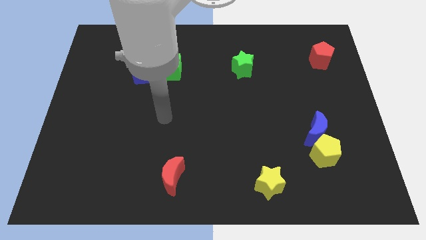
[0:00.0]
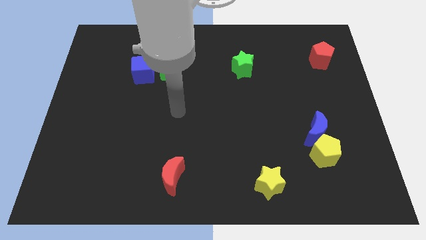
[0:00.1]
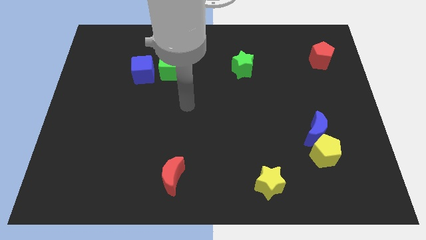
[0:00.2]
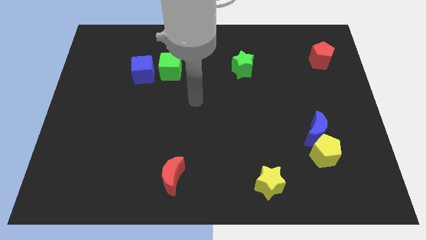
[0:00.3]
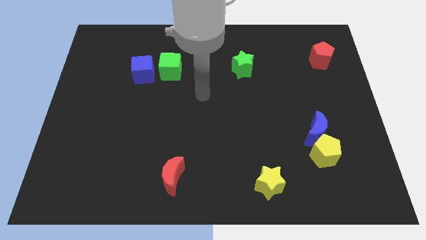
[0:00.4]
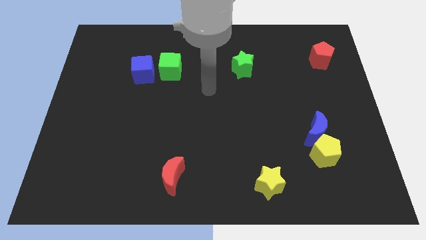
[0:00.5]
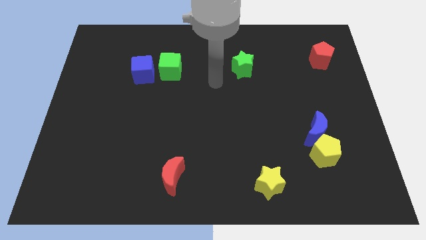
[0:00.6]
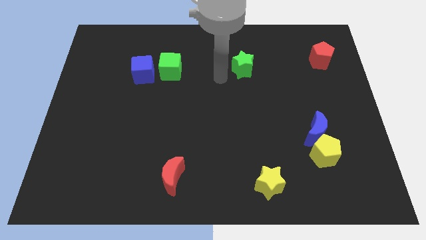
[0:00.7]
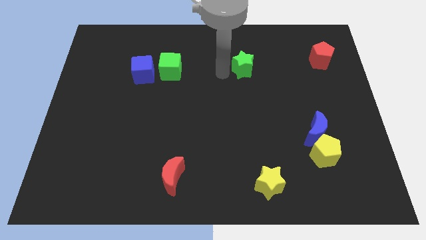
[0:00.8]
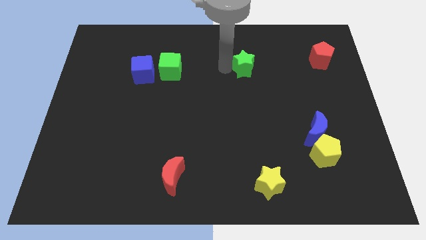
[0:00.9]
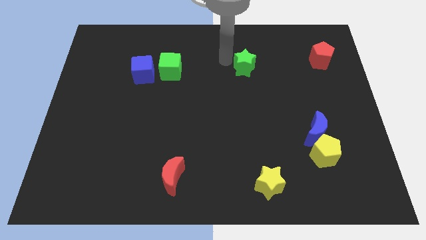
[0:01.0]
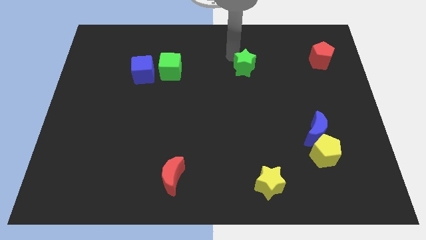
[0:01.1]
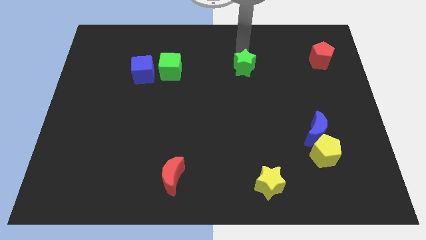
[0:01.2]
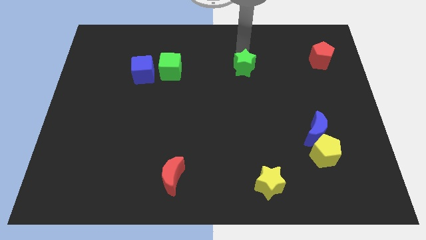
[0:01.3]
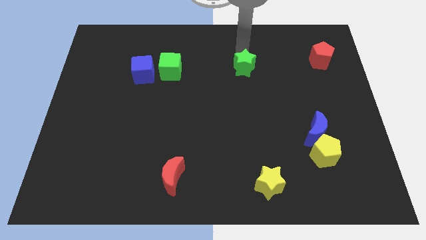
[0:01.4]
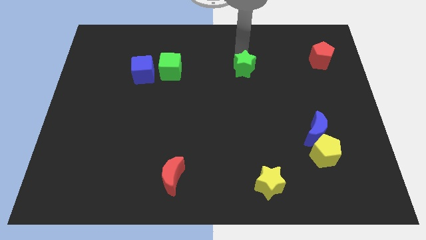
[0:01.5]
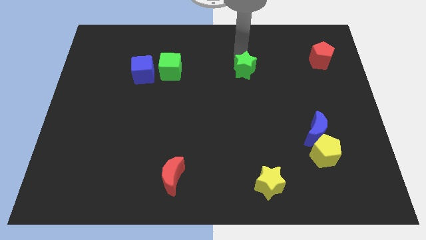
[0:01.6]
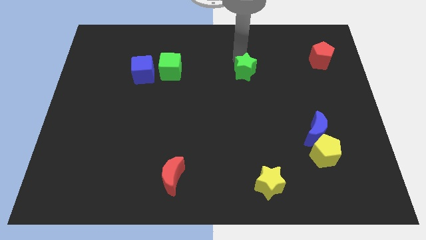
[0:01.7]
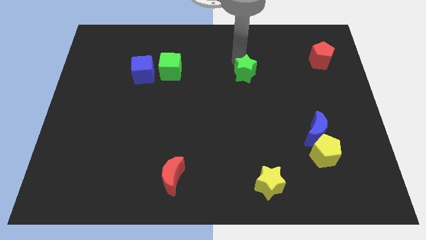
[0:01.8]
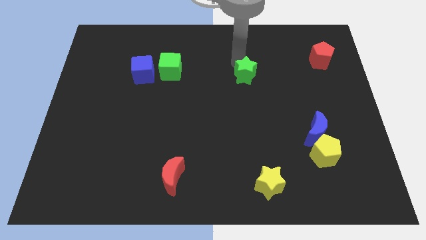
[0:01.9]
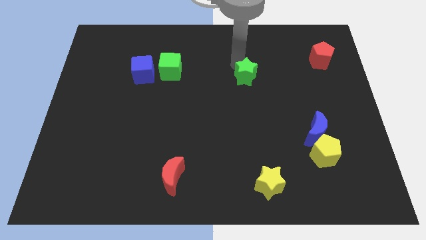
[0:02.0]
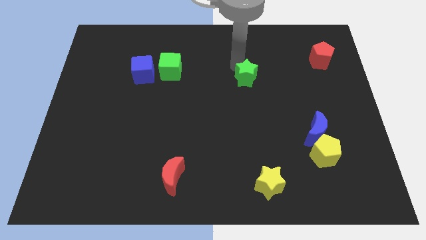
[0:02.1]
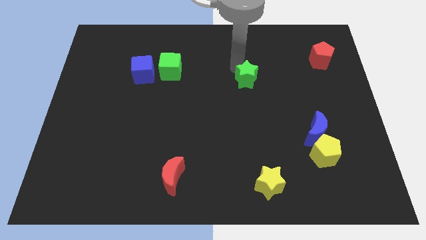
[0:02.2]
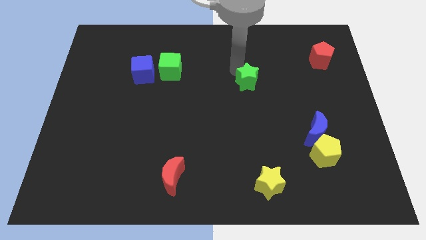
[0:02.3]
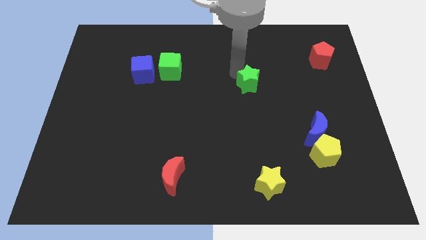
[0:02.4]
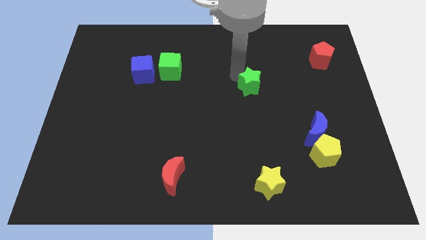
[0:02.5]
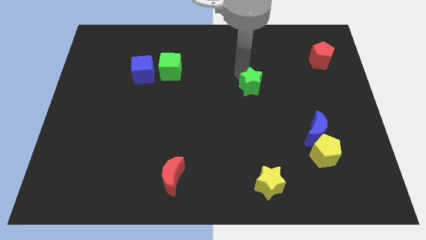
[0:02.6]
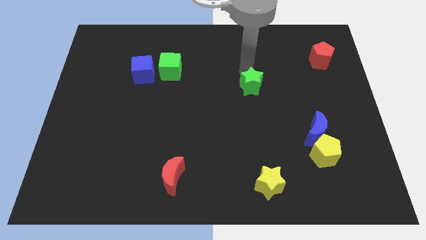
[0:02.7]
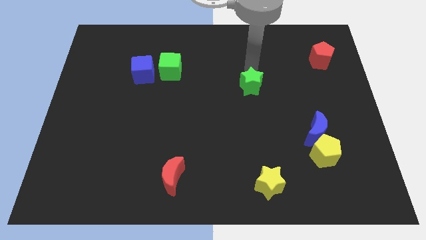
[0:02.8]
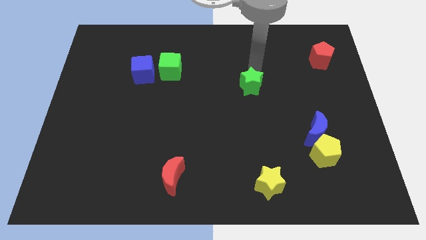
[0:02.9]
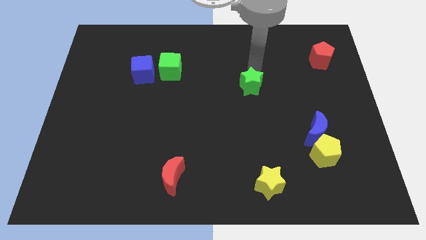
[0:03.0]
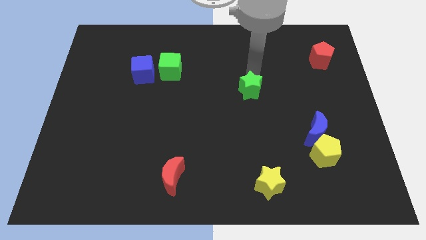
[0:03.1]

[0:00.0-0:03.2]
slide the green star slightly downwards

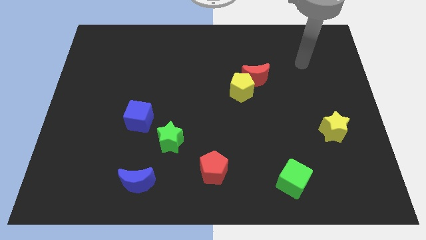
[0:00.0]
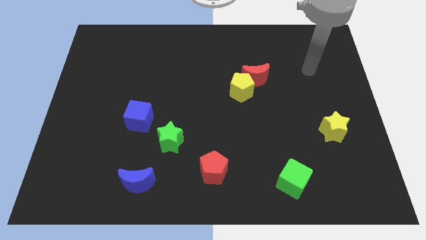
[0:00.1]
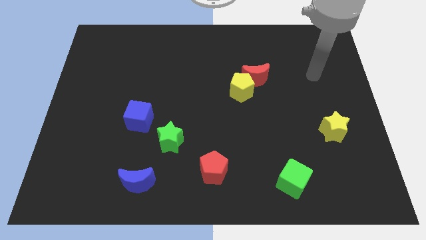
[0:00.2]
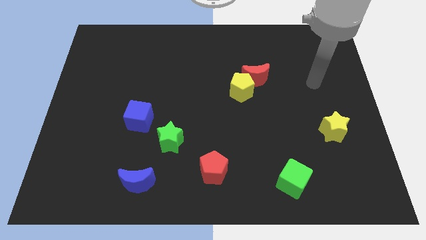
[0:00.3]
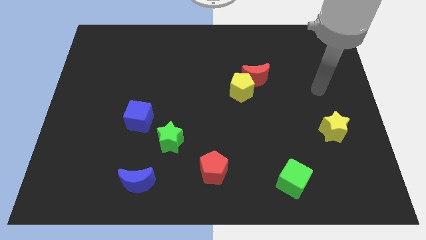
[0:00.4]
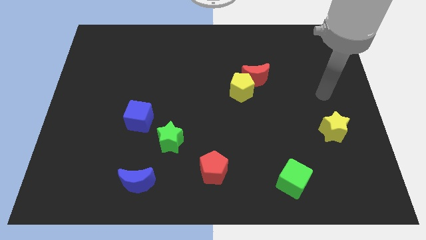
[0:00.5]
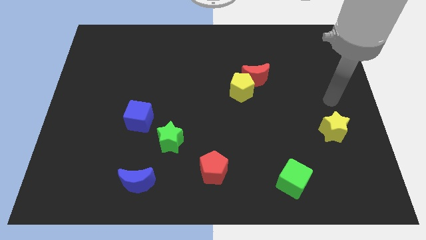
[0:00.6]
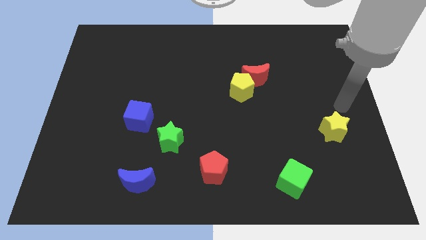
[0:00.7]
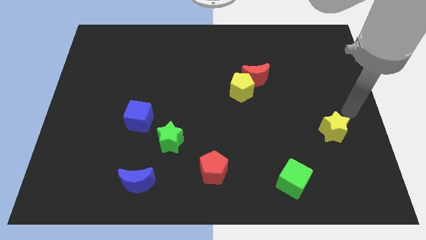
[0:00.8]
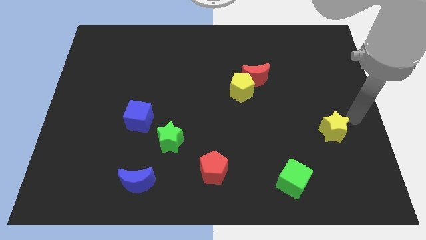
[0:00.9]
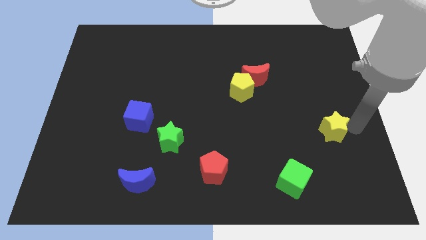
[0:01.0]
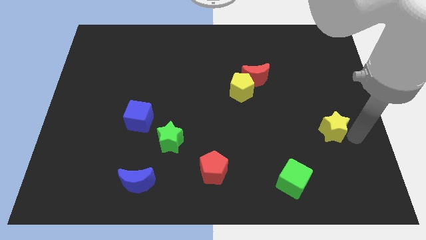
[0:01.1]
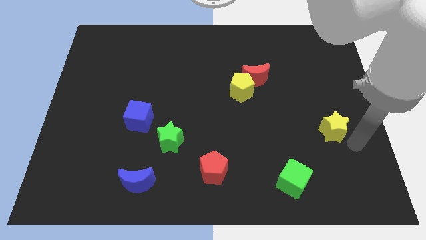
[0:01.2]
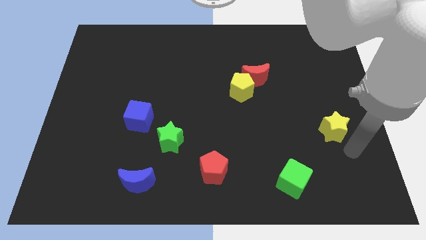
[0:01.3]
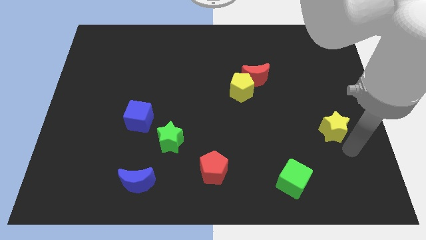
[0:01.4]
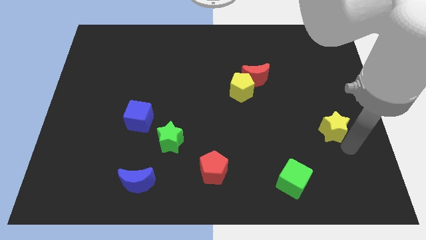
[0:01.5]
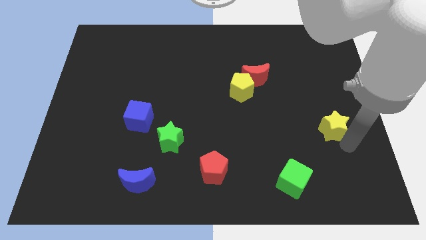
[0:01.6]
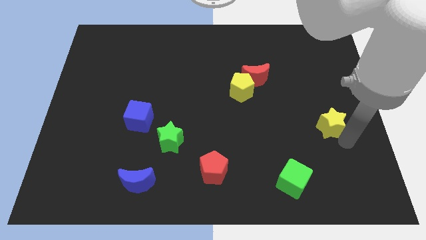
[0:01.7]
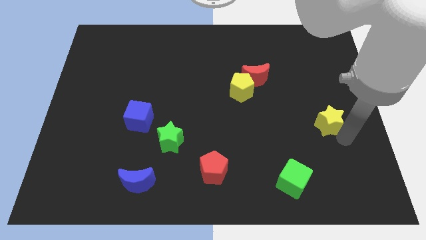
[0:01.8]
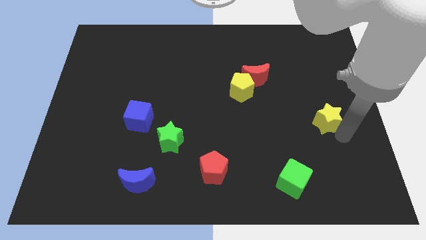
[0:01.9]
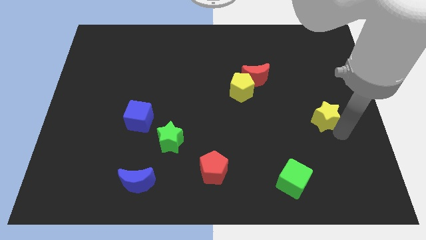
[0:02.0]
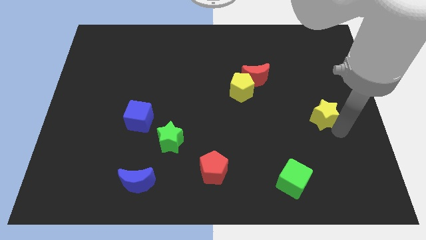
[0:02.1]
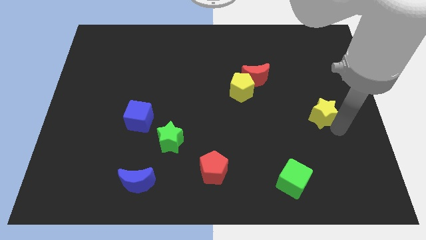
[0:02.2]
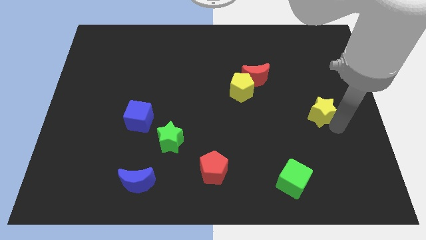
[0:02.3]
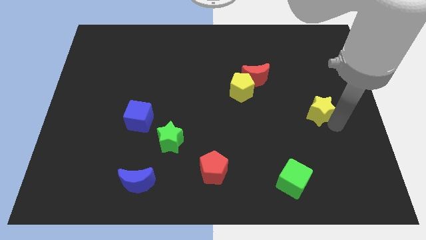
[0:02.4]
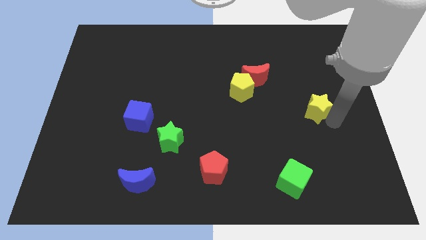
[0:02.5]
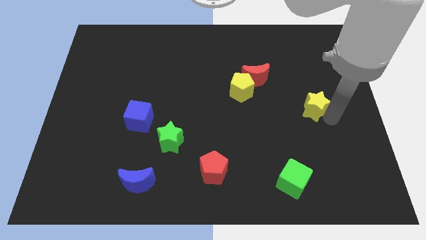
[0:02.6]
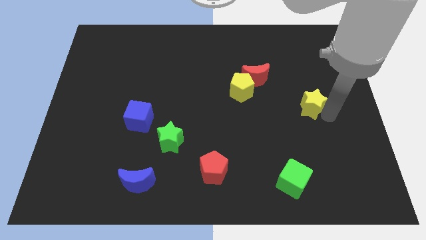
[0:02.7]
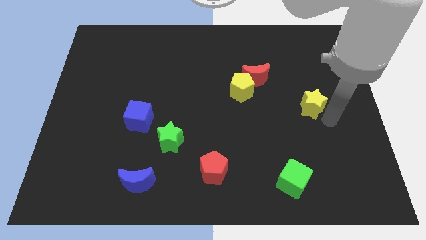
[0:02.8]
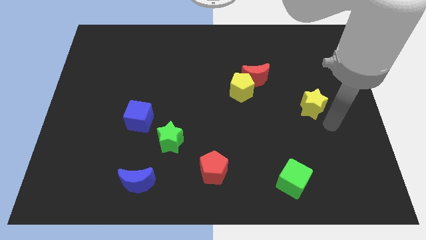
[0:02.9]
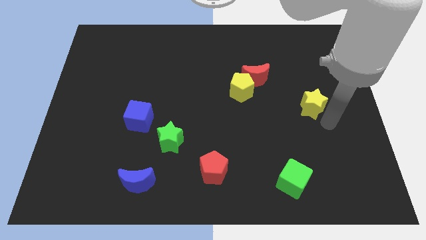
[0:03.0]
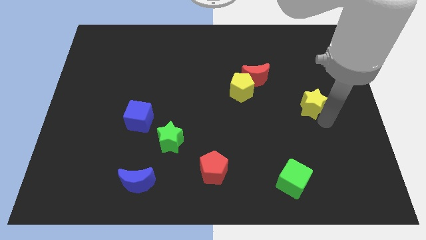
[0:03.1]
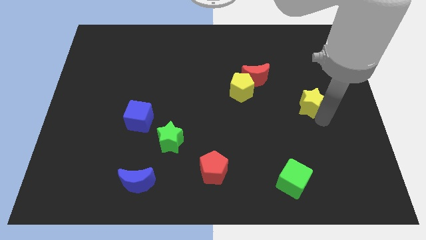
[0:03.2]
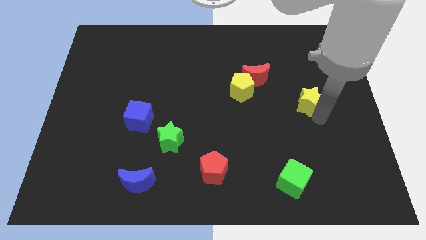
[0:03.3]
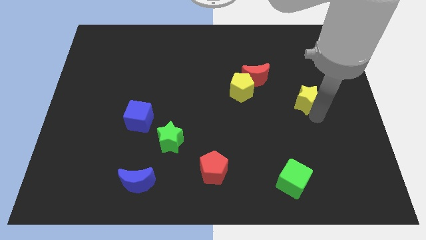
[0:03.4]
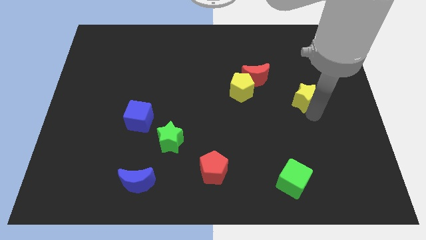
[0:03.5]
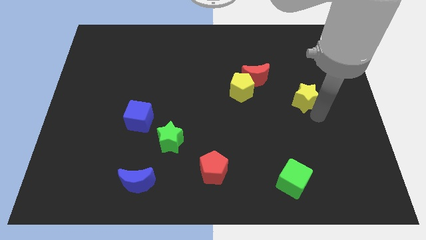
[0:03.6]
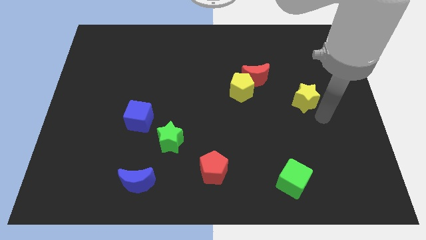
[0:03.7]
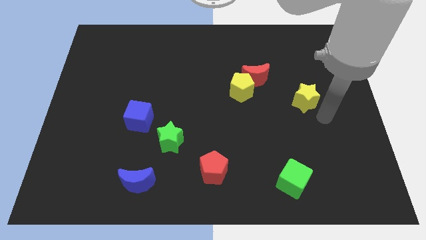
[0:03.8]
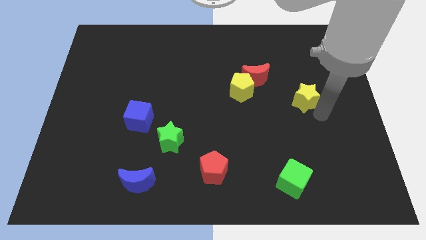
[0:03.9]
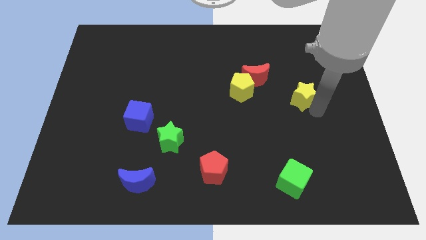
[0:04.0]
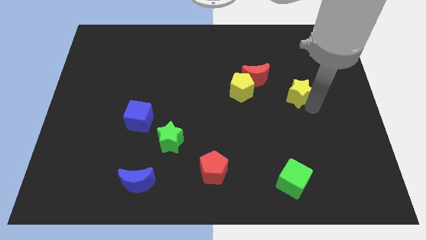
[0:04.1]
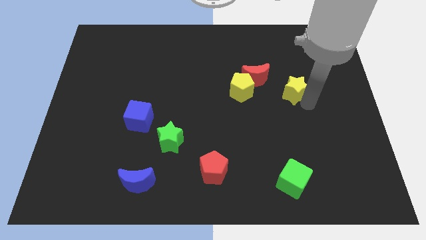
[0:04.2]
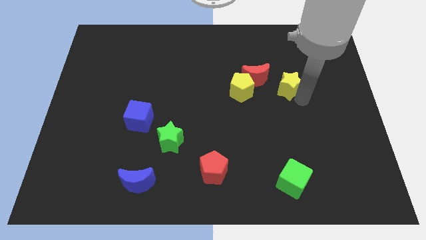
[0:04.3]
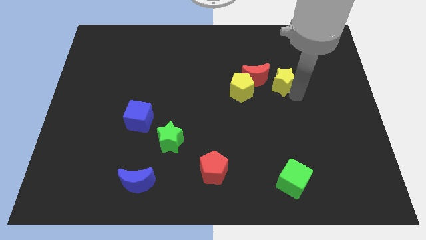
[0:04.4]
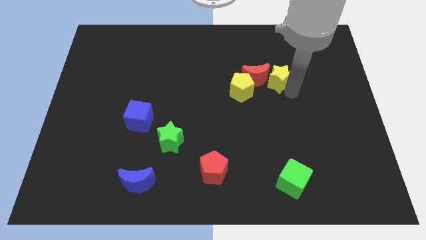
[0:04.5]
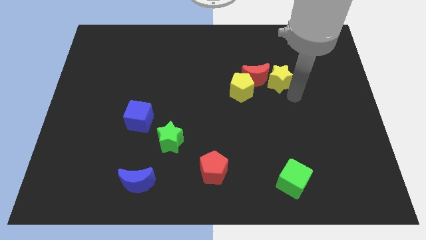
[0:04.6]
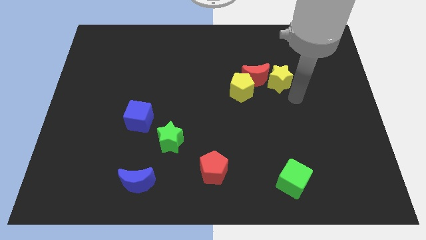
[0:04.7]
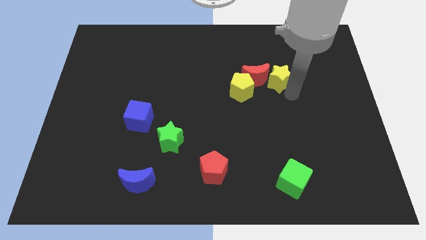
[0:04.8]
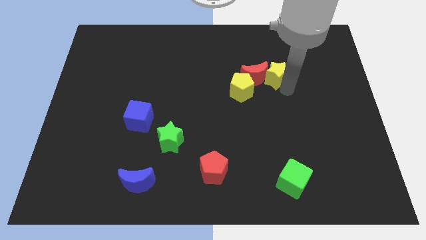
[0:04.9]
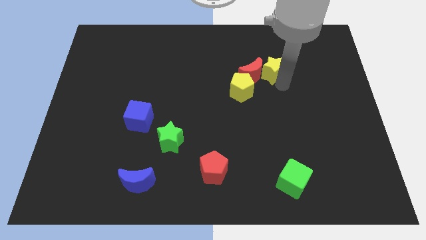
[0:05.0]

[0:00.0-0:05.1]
slide the yellow star up and left
